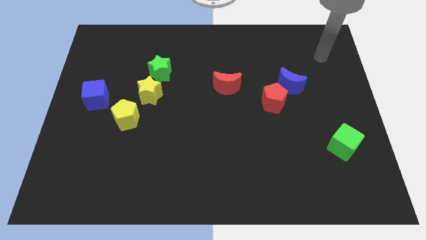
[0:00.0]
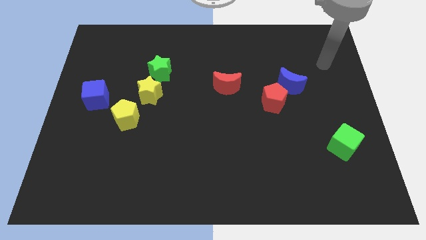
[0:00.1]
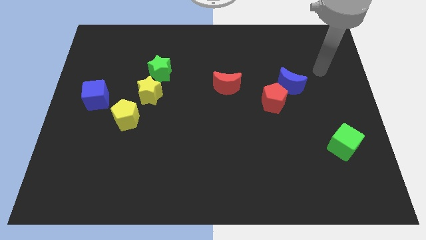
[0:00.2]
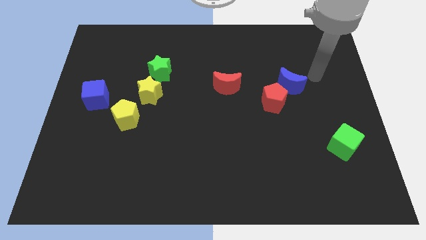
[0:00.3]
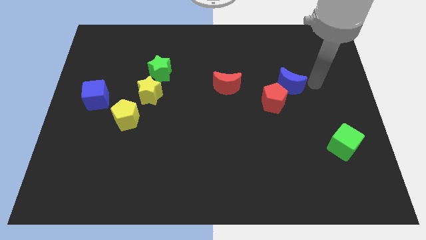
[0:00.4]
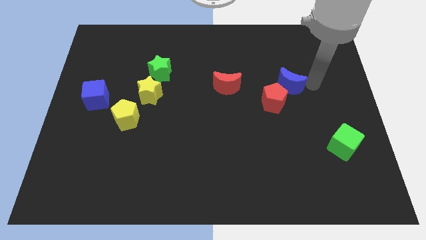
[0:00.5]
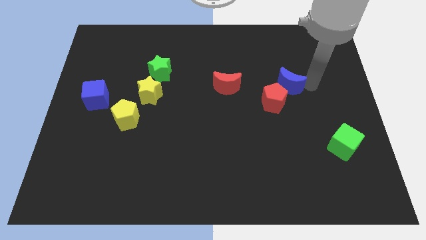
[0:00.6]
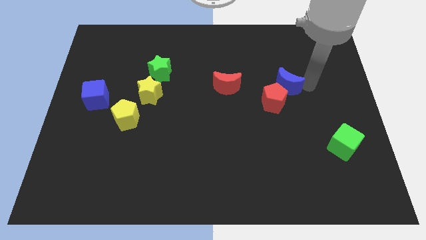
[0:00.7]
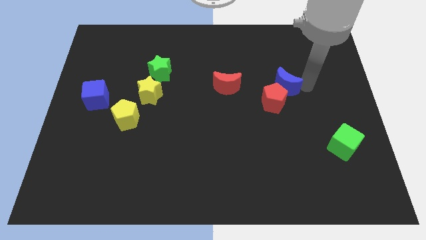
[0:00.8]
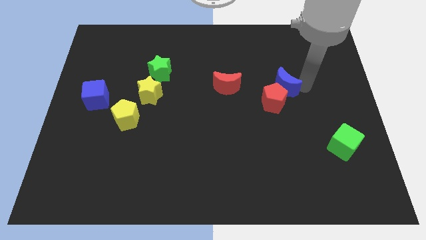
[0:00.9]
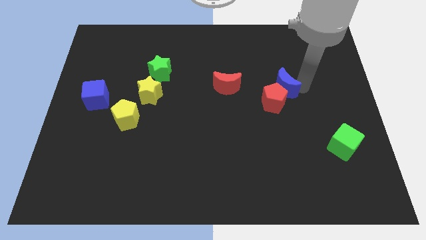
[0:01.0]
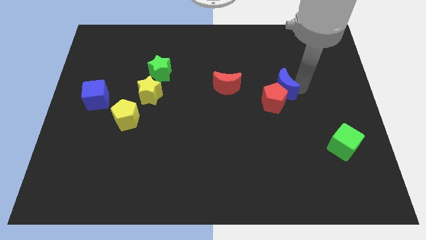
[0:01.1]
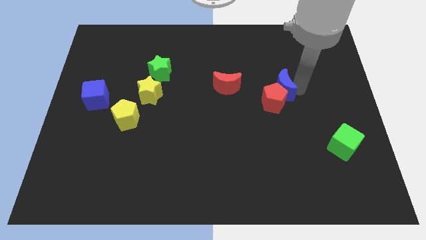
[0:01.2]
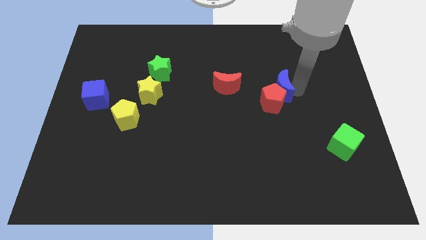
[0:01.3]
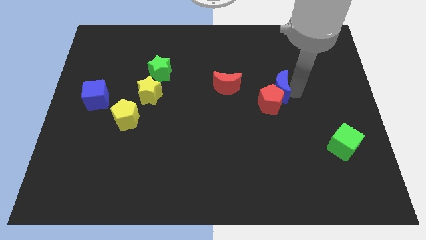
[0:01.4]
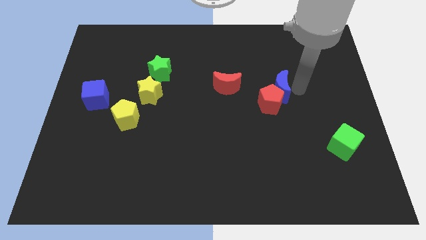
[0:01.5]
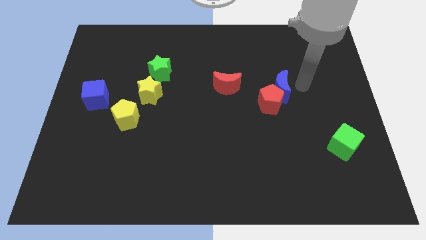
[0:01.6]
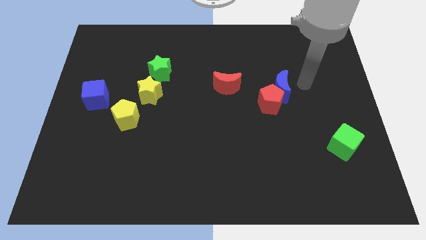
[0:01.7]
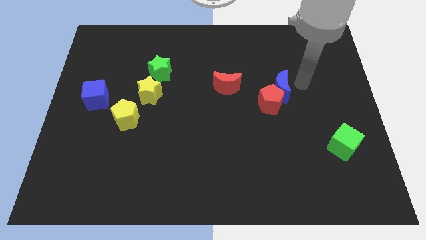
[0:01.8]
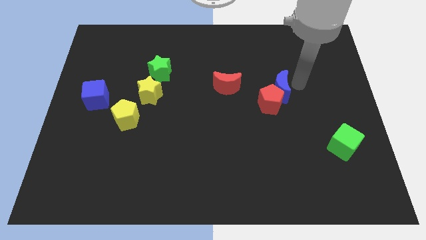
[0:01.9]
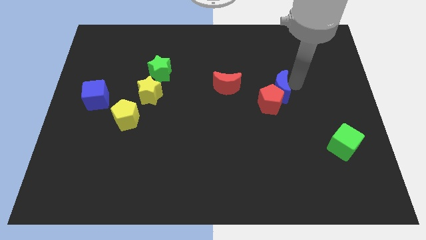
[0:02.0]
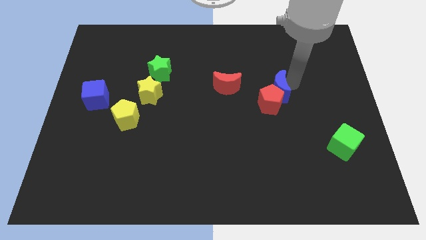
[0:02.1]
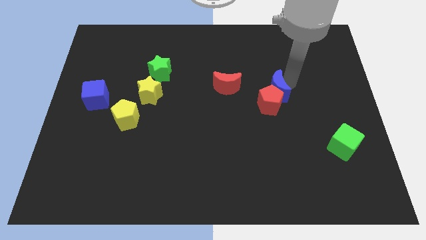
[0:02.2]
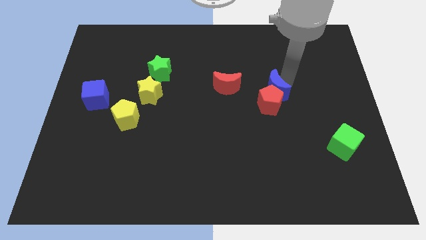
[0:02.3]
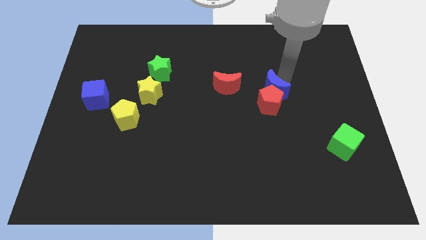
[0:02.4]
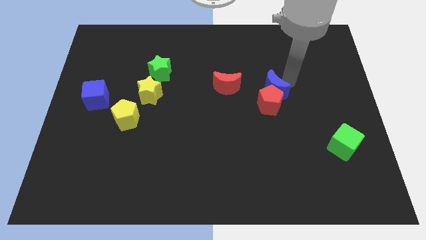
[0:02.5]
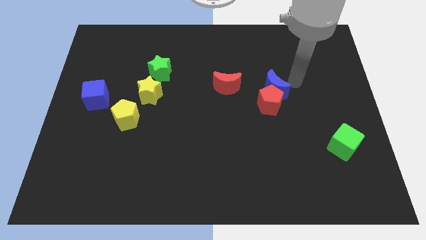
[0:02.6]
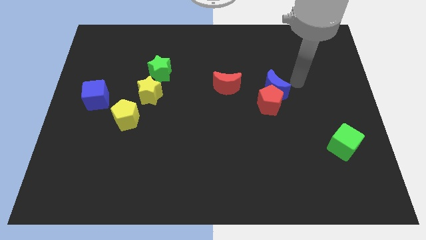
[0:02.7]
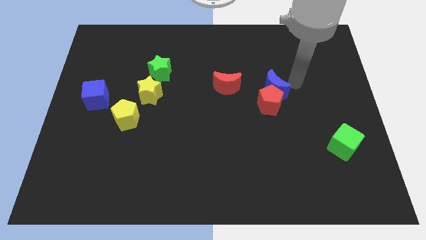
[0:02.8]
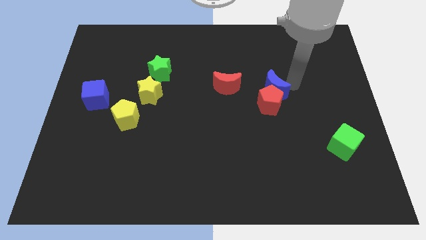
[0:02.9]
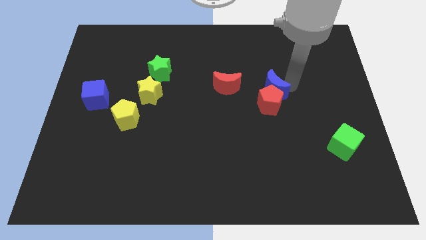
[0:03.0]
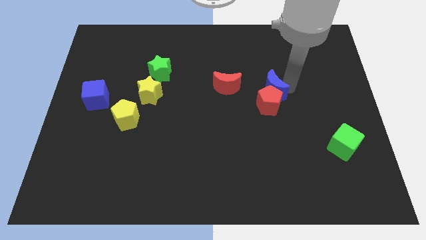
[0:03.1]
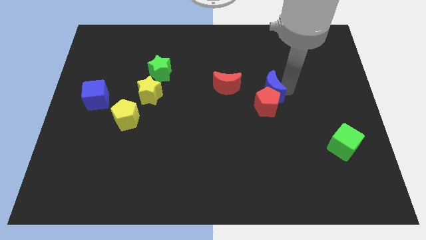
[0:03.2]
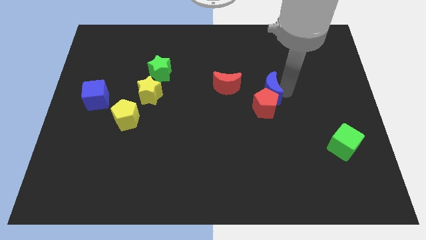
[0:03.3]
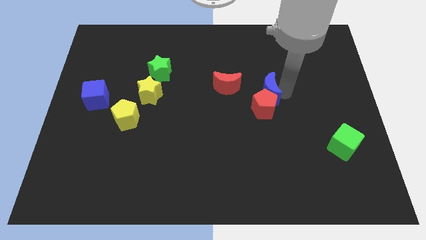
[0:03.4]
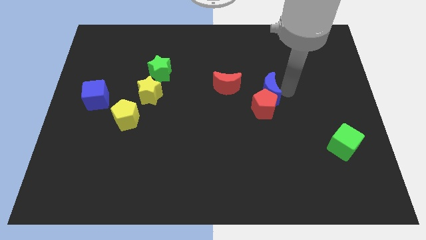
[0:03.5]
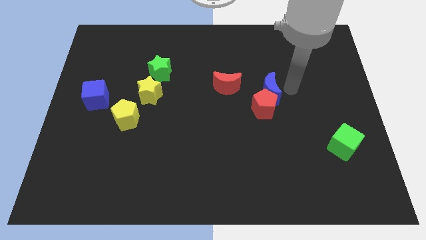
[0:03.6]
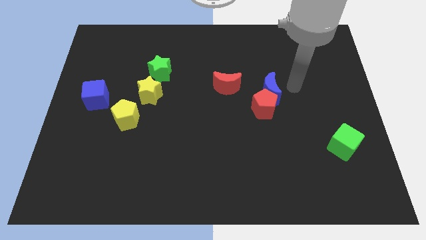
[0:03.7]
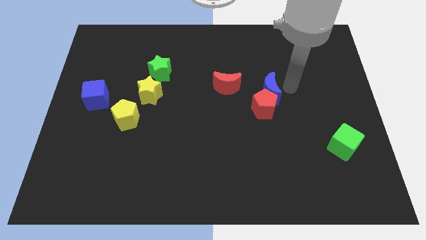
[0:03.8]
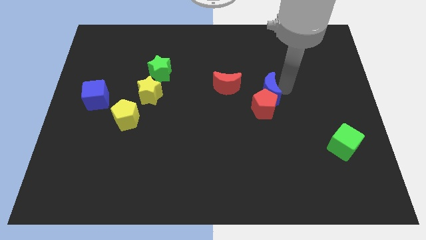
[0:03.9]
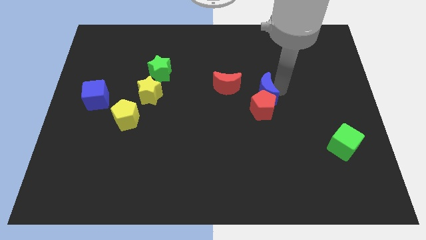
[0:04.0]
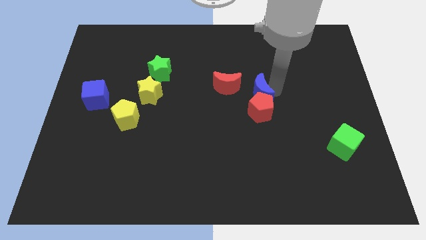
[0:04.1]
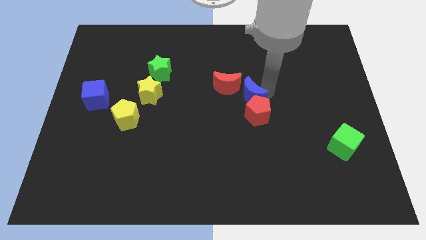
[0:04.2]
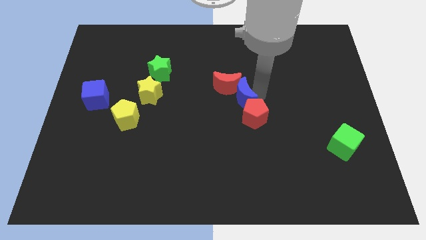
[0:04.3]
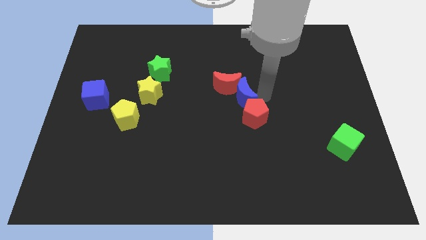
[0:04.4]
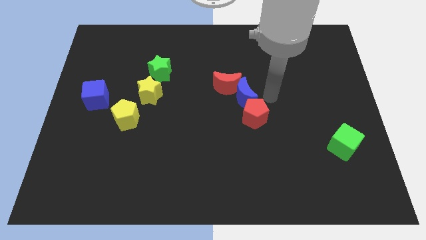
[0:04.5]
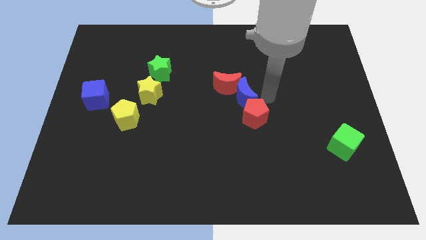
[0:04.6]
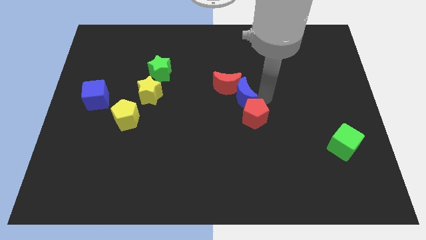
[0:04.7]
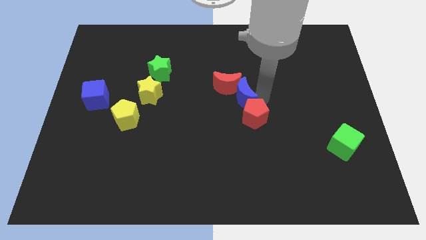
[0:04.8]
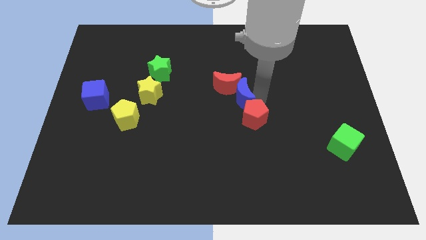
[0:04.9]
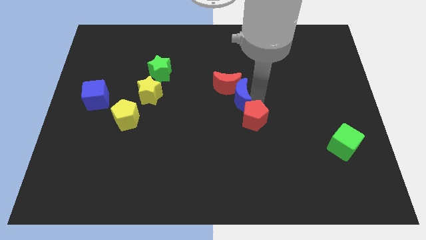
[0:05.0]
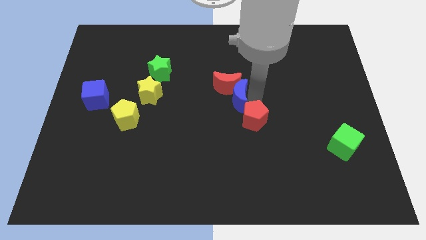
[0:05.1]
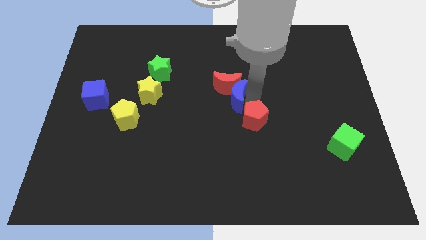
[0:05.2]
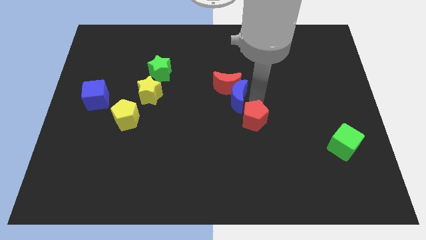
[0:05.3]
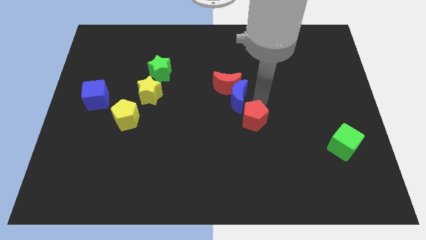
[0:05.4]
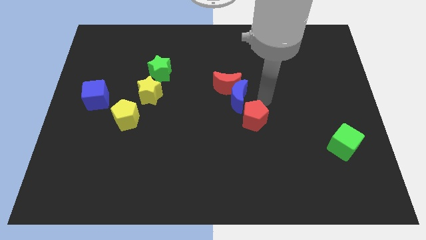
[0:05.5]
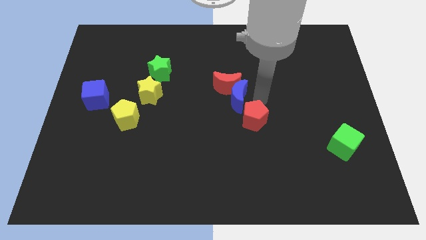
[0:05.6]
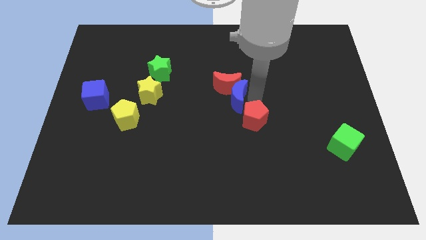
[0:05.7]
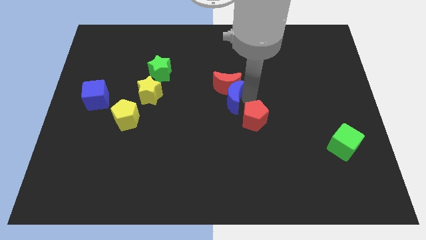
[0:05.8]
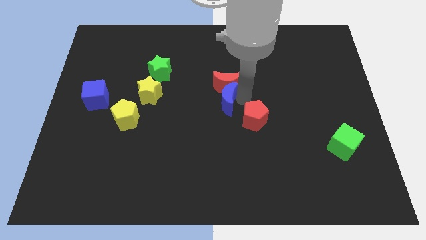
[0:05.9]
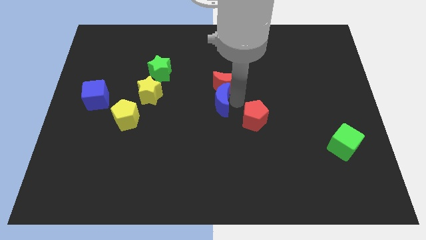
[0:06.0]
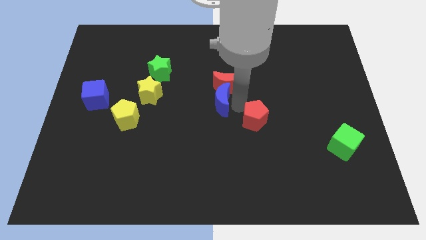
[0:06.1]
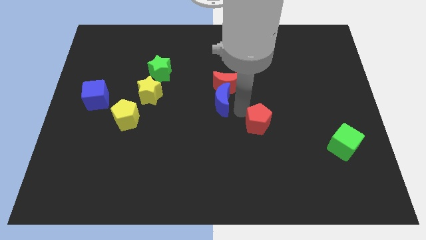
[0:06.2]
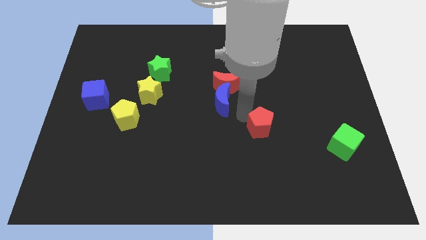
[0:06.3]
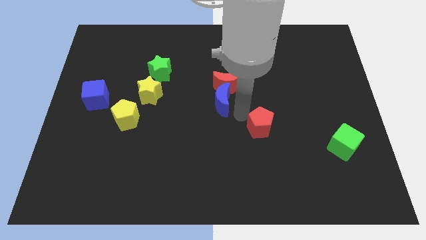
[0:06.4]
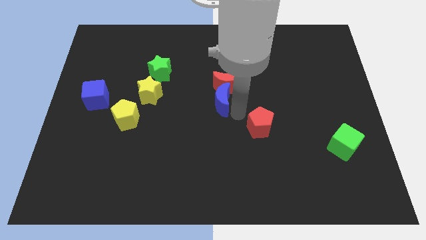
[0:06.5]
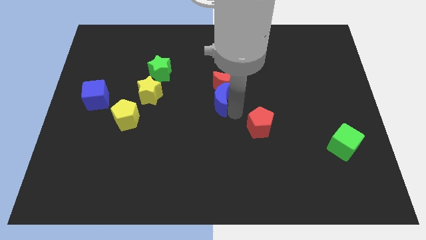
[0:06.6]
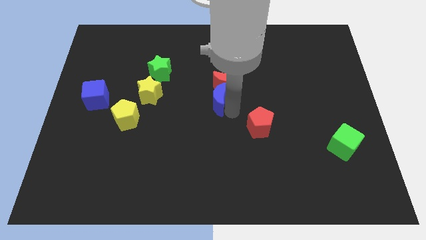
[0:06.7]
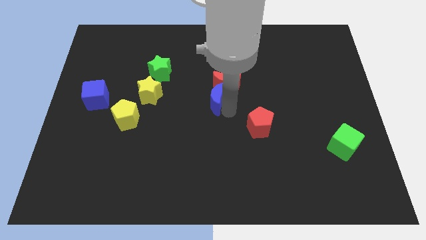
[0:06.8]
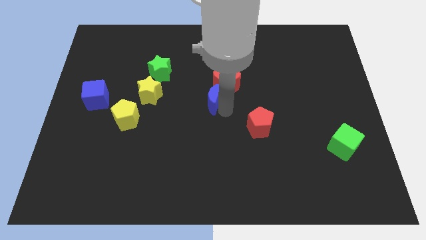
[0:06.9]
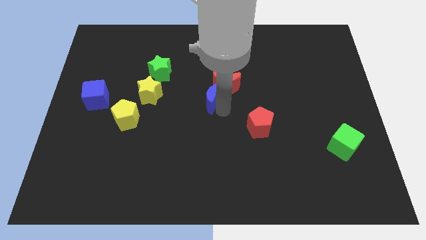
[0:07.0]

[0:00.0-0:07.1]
push the blue moon just left of the red moon
